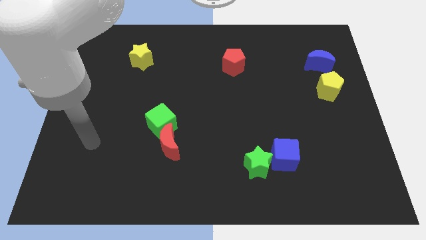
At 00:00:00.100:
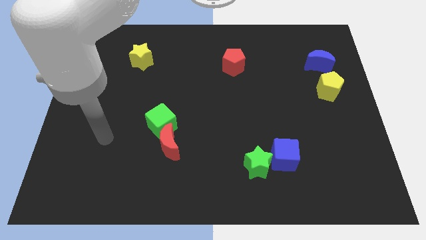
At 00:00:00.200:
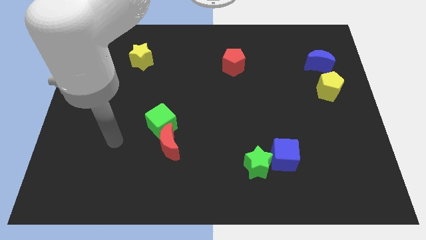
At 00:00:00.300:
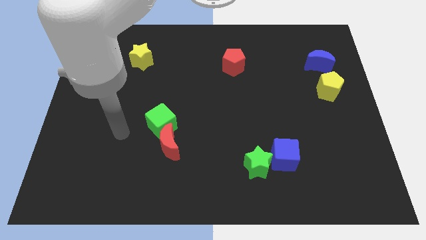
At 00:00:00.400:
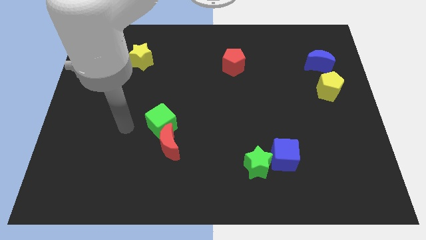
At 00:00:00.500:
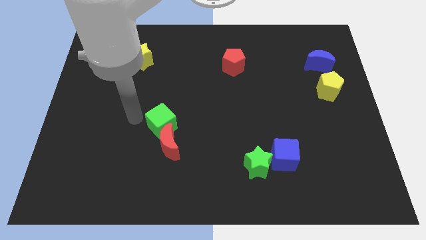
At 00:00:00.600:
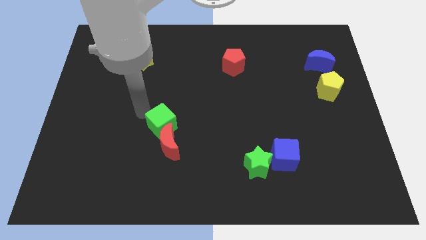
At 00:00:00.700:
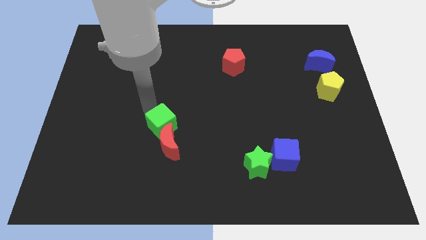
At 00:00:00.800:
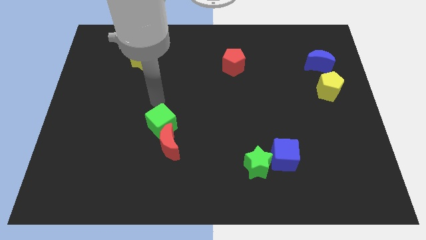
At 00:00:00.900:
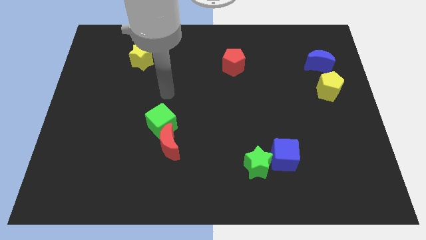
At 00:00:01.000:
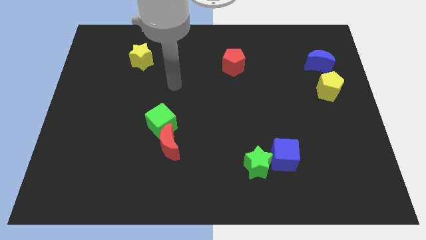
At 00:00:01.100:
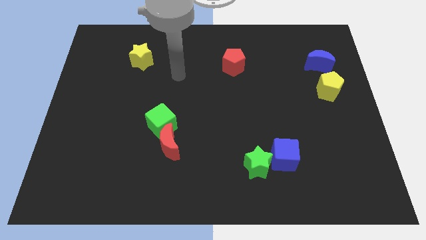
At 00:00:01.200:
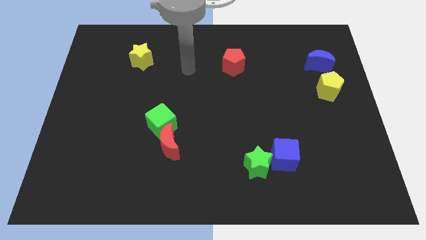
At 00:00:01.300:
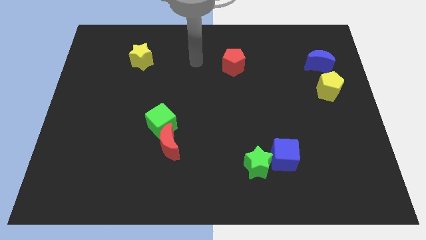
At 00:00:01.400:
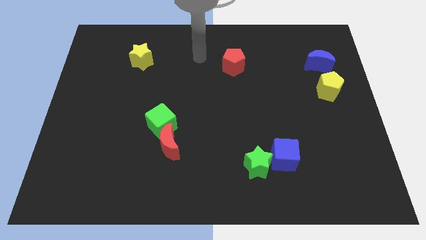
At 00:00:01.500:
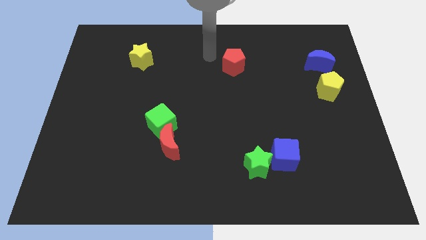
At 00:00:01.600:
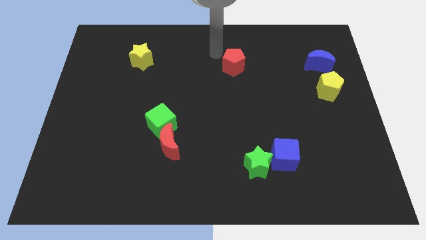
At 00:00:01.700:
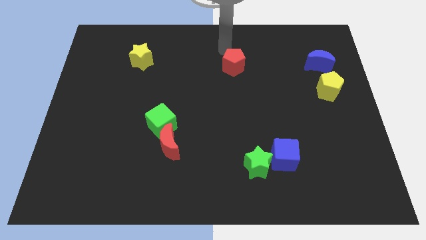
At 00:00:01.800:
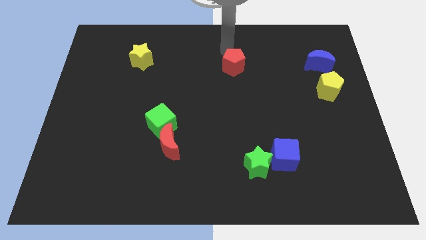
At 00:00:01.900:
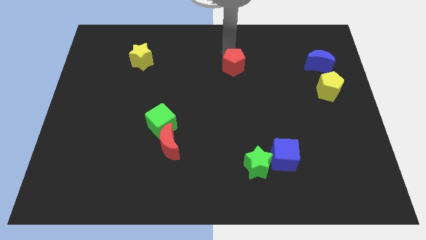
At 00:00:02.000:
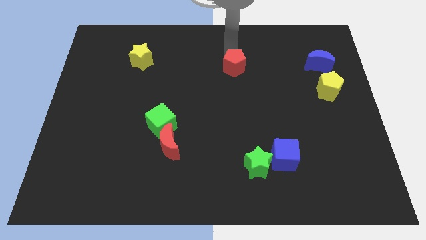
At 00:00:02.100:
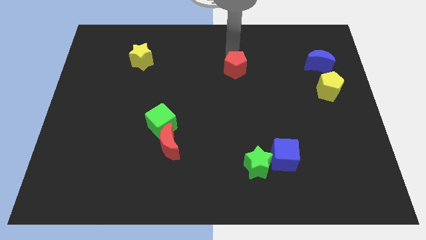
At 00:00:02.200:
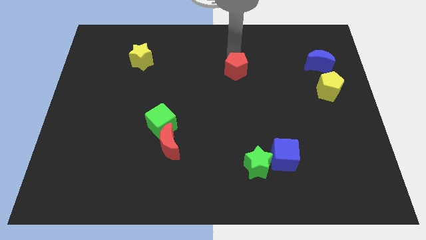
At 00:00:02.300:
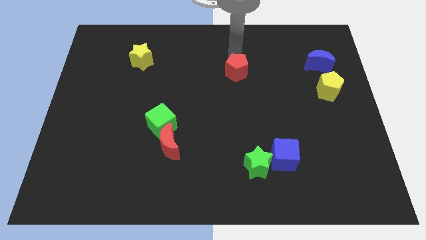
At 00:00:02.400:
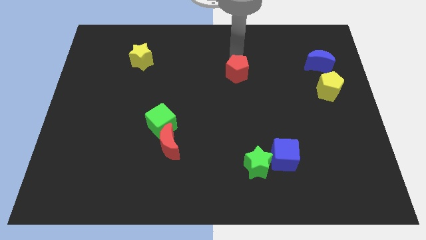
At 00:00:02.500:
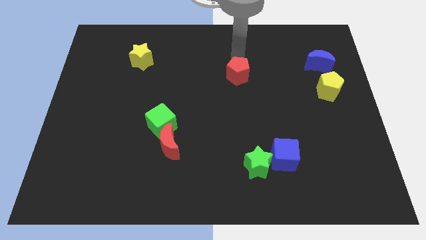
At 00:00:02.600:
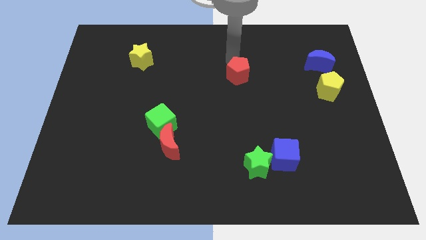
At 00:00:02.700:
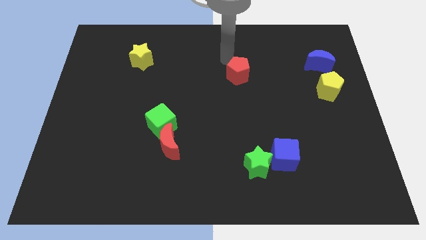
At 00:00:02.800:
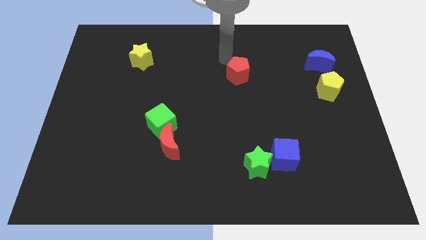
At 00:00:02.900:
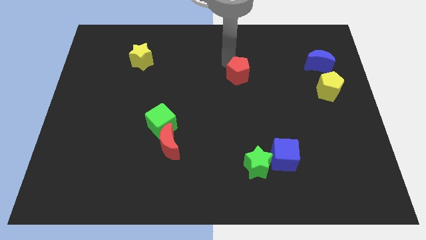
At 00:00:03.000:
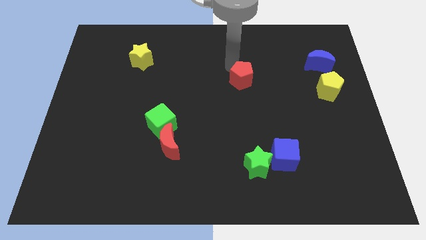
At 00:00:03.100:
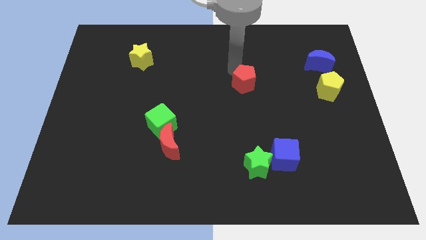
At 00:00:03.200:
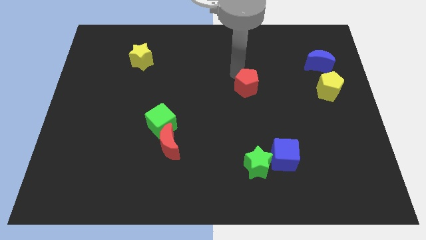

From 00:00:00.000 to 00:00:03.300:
slide the red pentagon downwards and right a little bit

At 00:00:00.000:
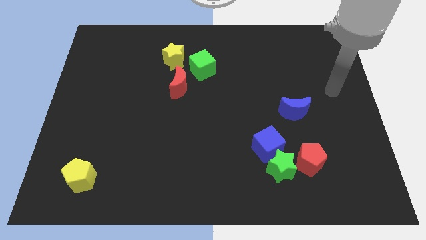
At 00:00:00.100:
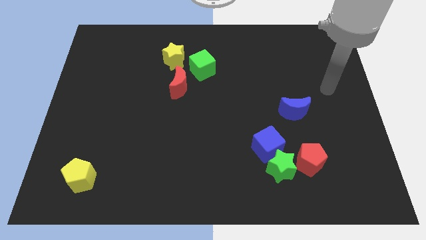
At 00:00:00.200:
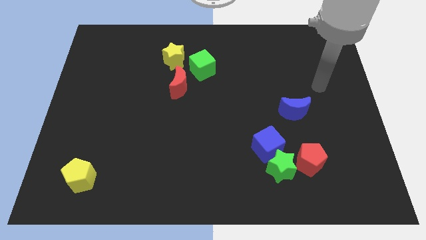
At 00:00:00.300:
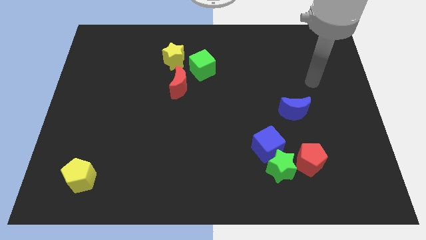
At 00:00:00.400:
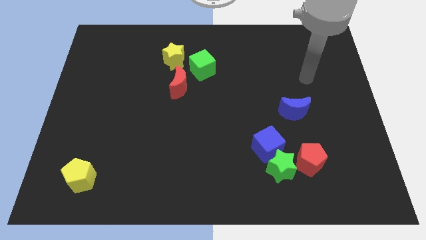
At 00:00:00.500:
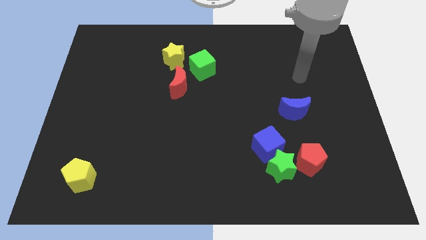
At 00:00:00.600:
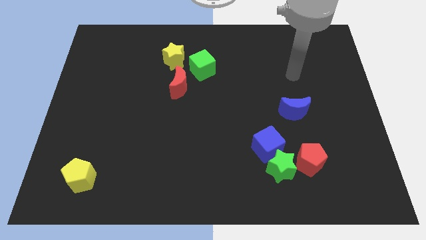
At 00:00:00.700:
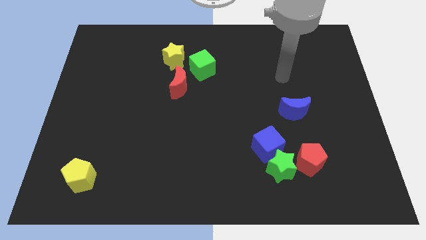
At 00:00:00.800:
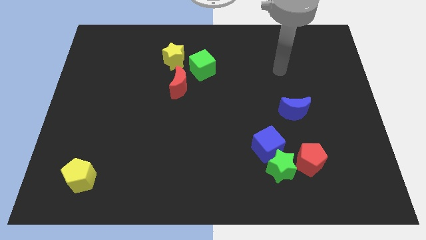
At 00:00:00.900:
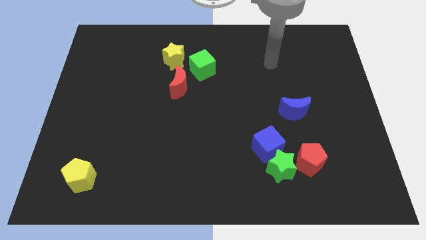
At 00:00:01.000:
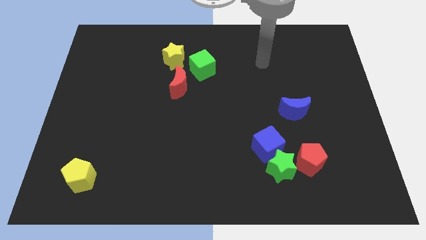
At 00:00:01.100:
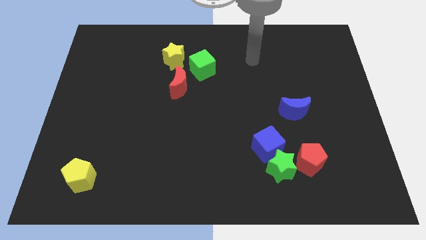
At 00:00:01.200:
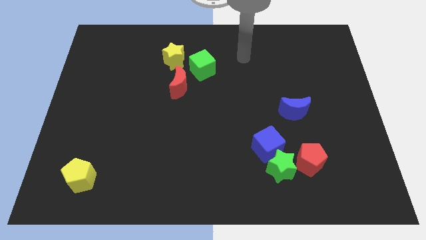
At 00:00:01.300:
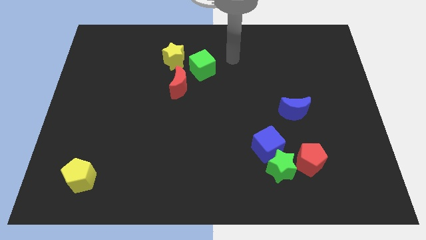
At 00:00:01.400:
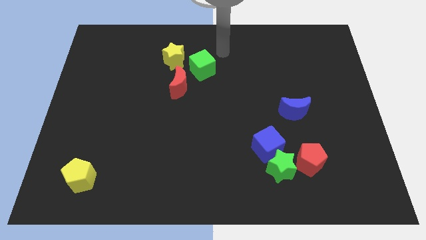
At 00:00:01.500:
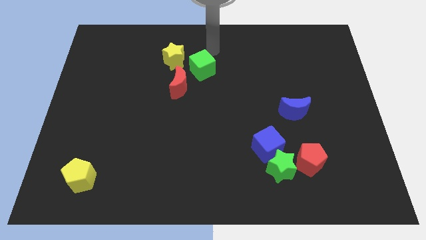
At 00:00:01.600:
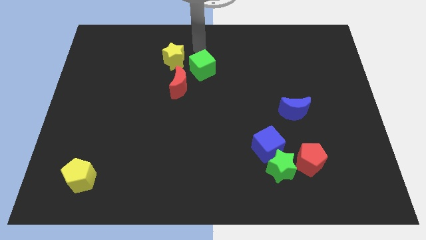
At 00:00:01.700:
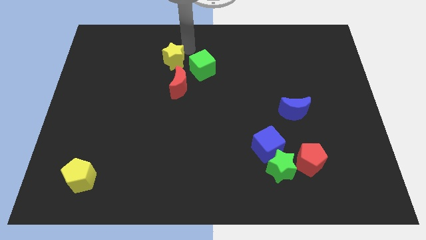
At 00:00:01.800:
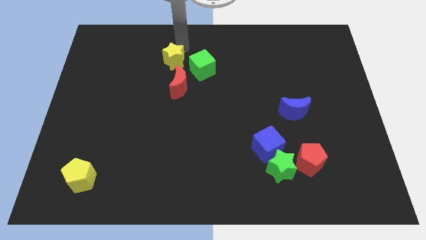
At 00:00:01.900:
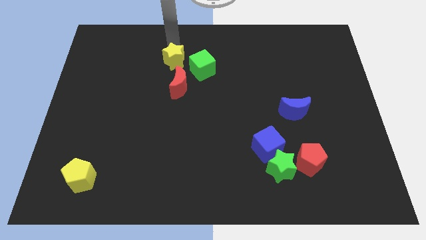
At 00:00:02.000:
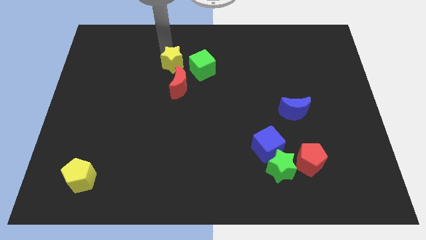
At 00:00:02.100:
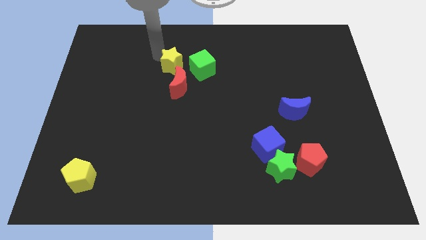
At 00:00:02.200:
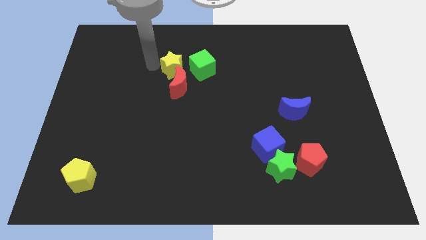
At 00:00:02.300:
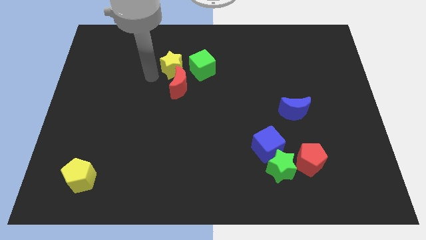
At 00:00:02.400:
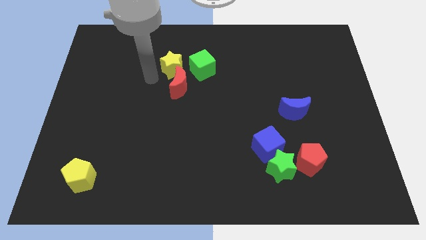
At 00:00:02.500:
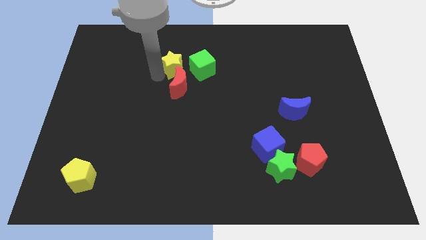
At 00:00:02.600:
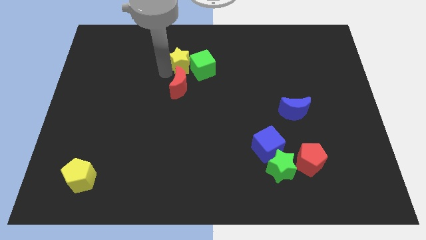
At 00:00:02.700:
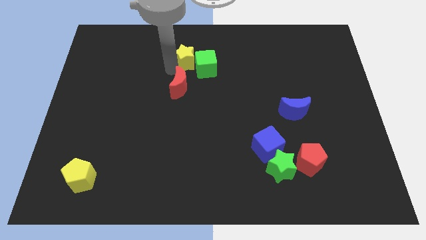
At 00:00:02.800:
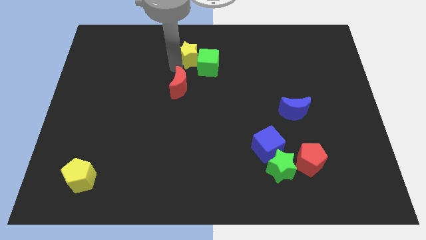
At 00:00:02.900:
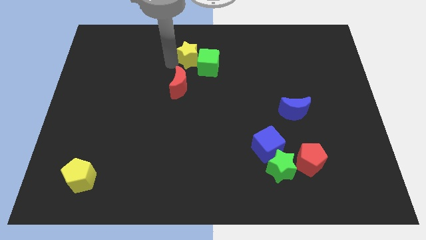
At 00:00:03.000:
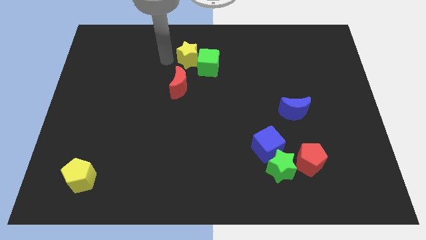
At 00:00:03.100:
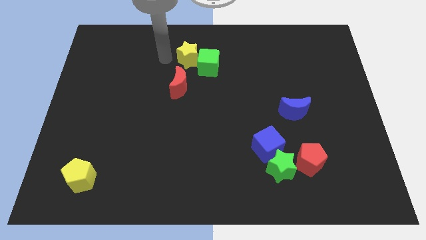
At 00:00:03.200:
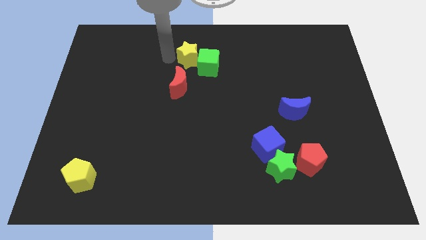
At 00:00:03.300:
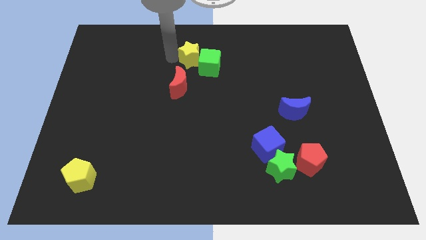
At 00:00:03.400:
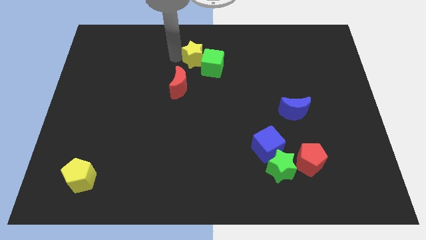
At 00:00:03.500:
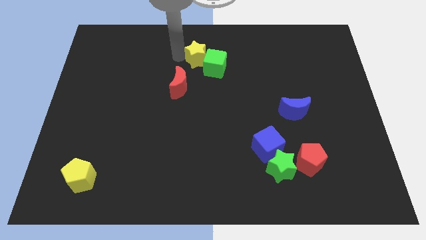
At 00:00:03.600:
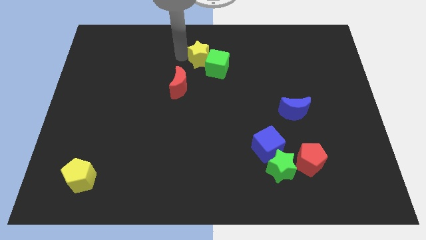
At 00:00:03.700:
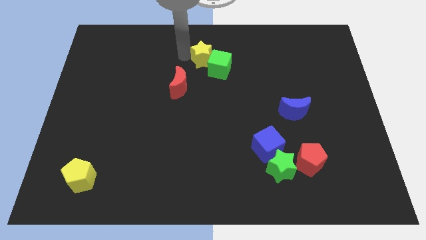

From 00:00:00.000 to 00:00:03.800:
push the yellow star right a little

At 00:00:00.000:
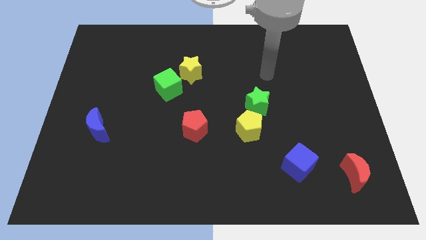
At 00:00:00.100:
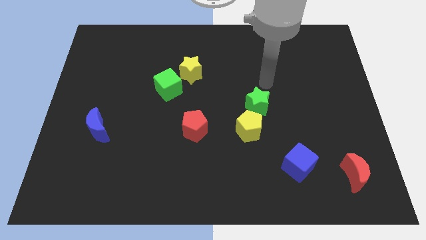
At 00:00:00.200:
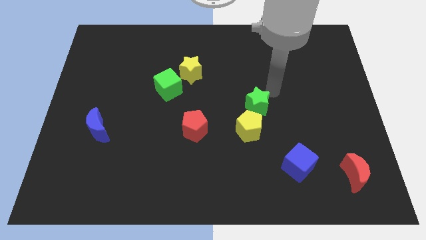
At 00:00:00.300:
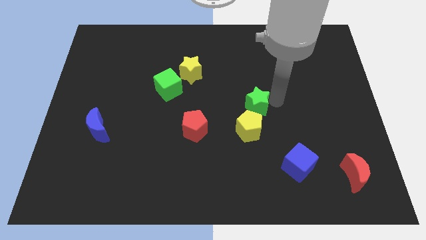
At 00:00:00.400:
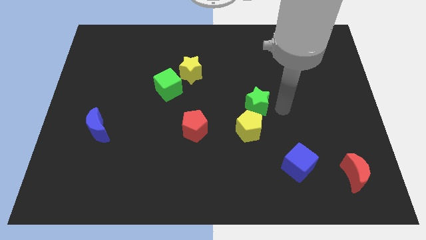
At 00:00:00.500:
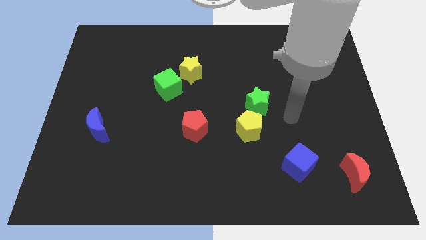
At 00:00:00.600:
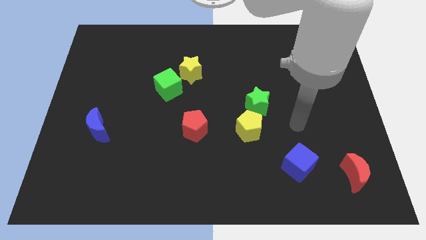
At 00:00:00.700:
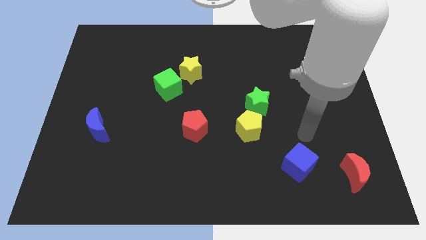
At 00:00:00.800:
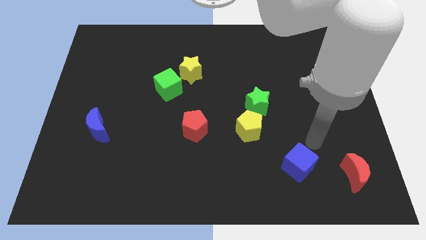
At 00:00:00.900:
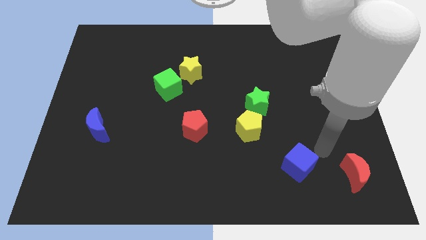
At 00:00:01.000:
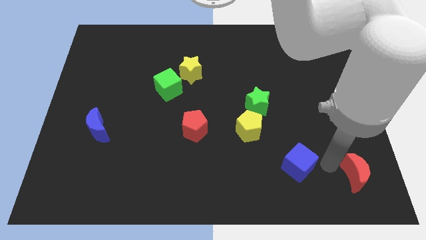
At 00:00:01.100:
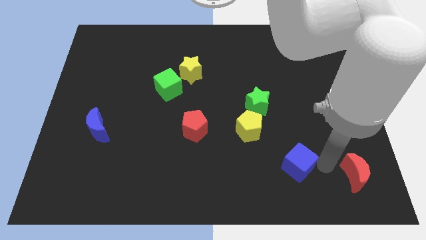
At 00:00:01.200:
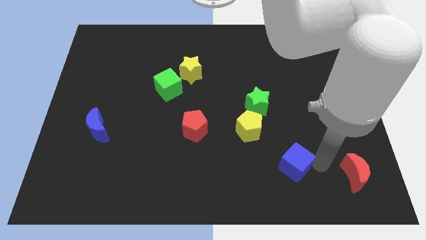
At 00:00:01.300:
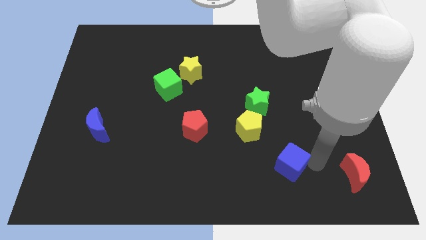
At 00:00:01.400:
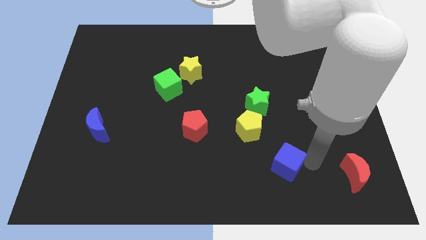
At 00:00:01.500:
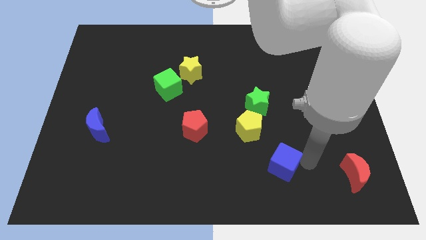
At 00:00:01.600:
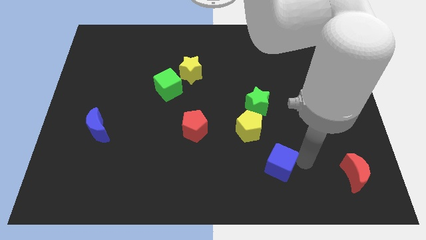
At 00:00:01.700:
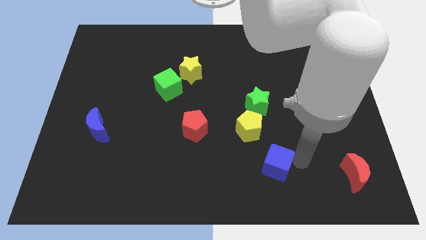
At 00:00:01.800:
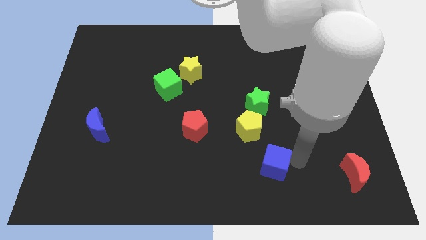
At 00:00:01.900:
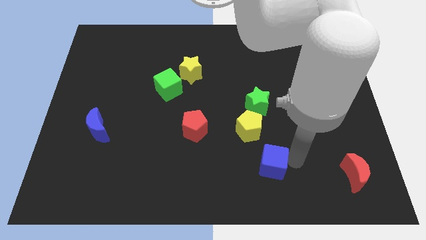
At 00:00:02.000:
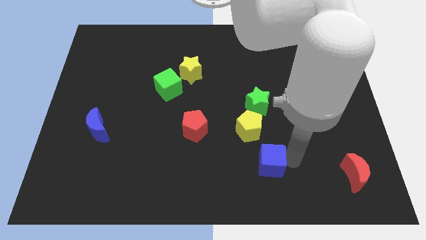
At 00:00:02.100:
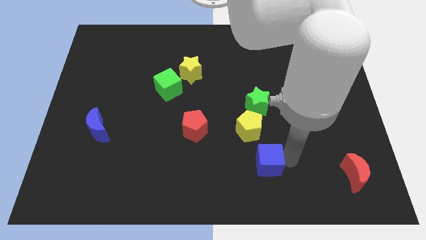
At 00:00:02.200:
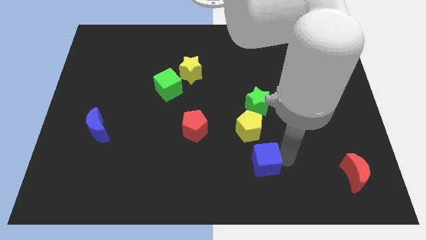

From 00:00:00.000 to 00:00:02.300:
move the blue cube a little to the left
